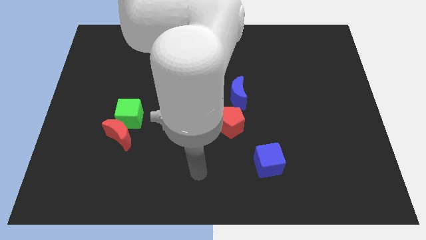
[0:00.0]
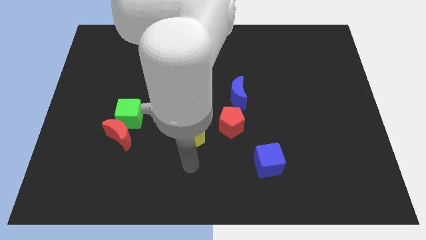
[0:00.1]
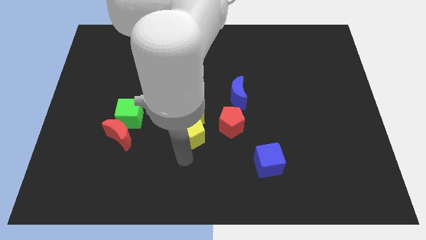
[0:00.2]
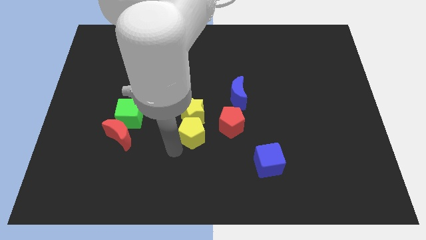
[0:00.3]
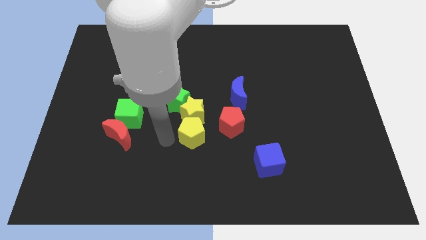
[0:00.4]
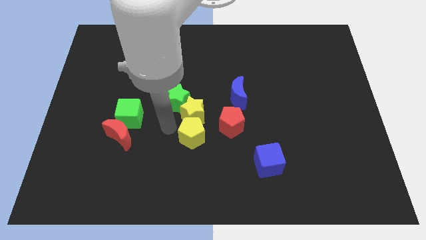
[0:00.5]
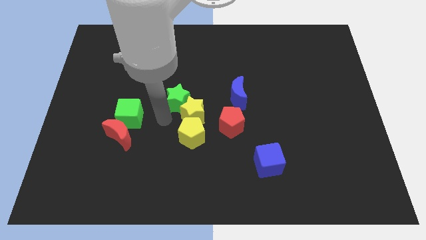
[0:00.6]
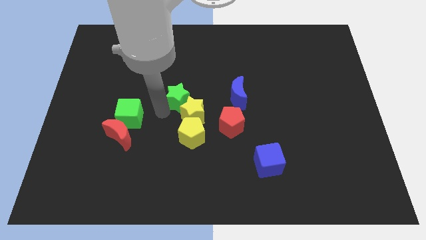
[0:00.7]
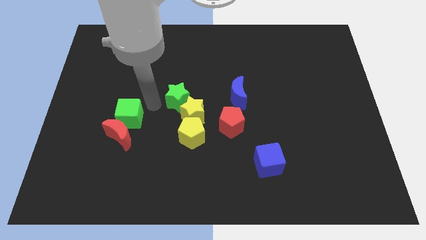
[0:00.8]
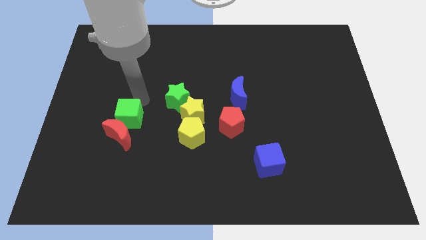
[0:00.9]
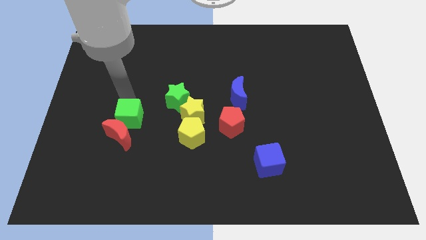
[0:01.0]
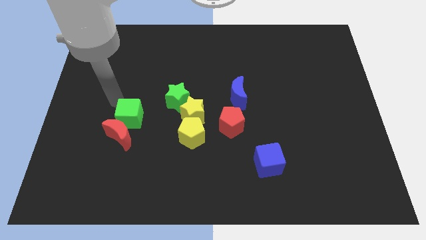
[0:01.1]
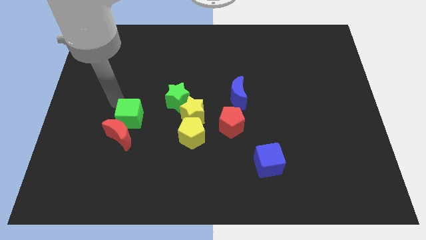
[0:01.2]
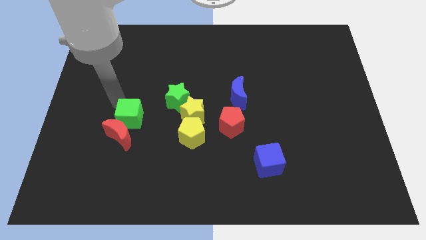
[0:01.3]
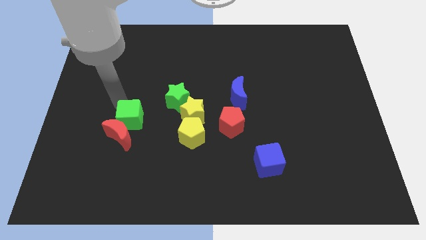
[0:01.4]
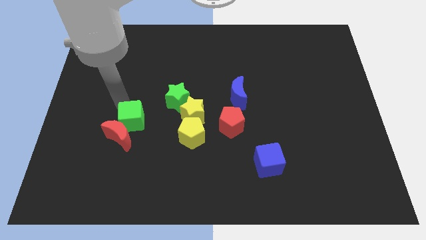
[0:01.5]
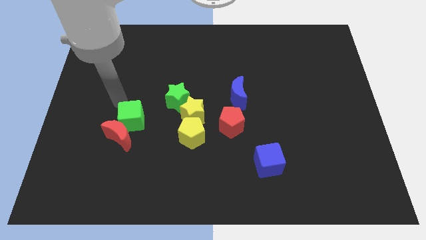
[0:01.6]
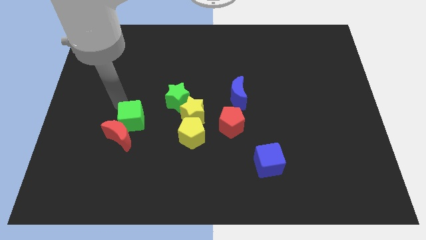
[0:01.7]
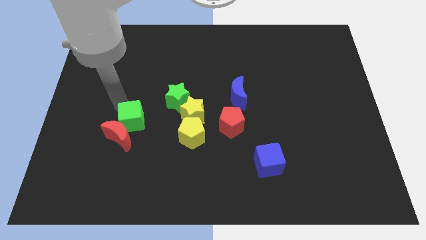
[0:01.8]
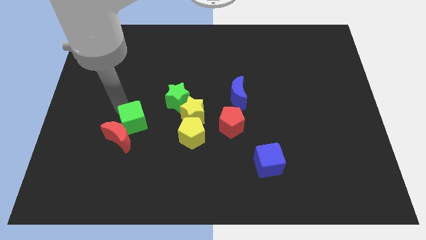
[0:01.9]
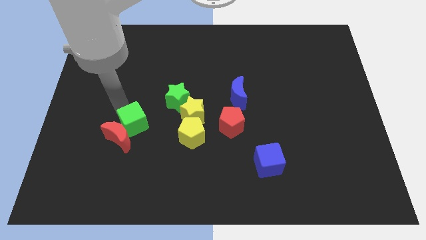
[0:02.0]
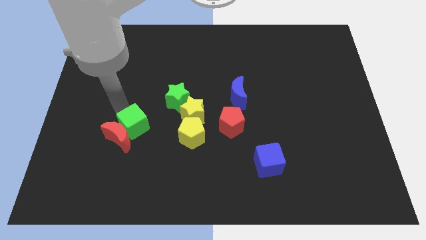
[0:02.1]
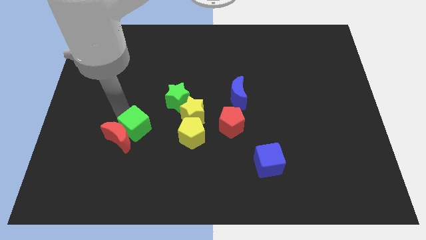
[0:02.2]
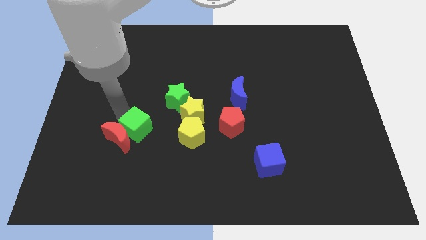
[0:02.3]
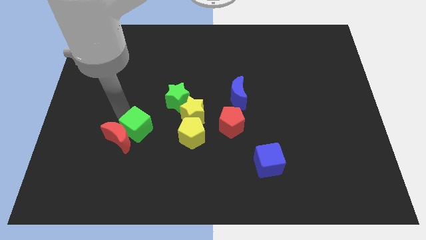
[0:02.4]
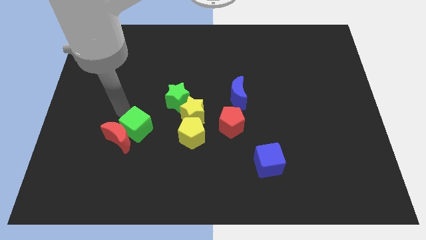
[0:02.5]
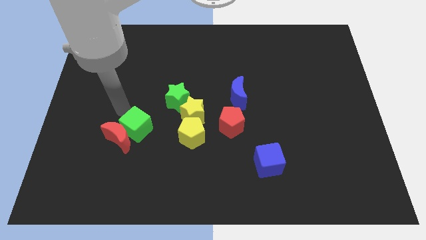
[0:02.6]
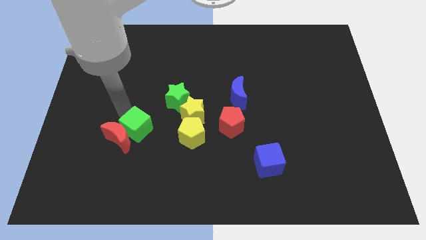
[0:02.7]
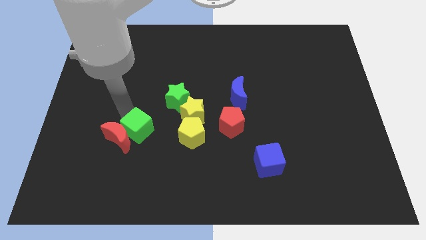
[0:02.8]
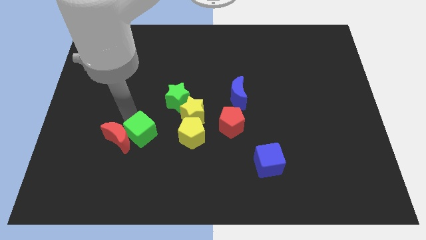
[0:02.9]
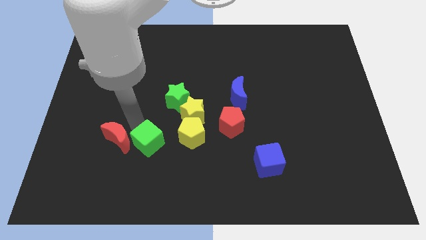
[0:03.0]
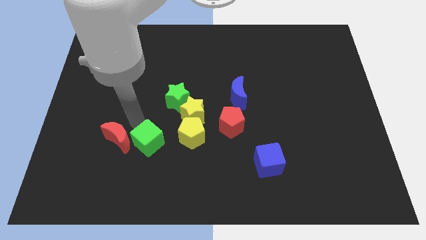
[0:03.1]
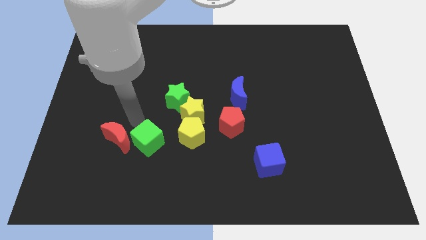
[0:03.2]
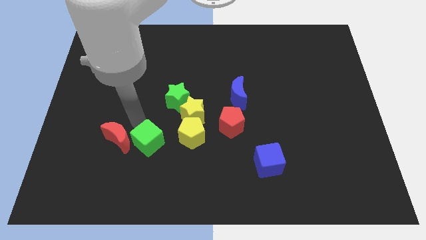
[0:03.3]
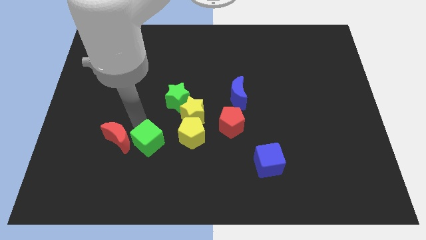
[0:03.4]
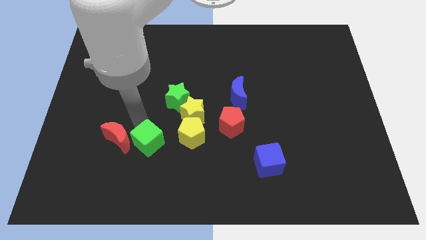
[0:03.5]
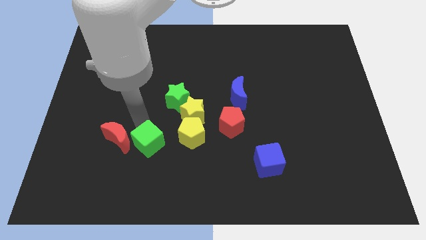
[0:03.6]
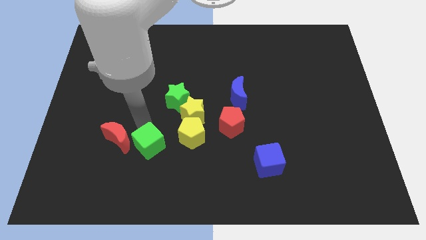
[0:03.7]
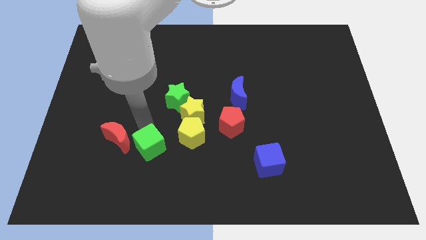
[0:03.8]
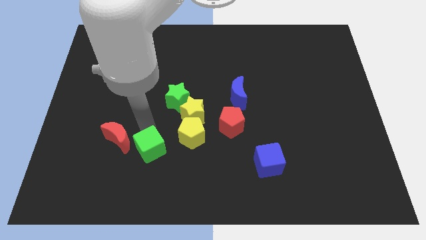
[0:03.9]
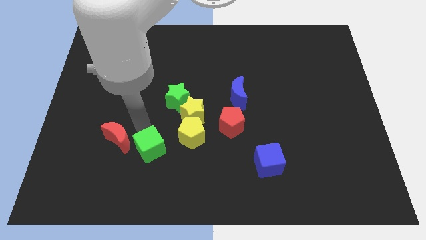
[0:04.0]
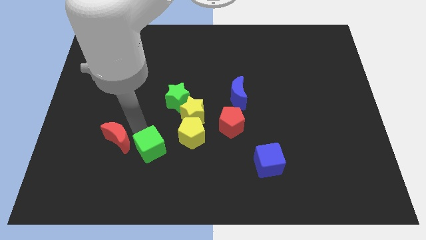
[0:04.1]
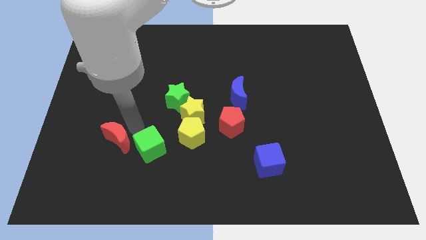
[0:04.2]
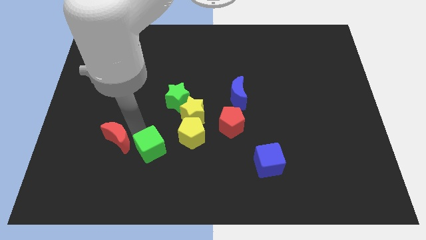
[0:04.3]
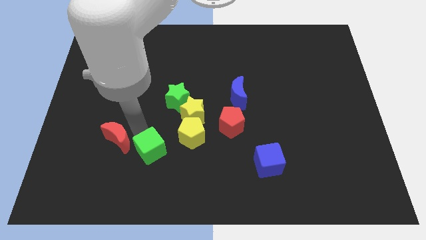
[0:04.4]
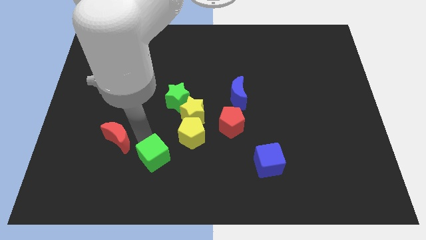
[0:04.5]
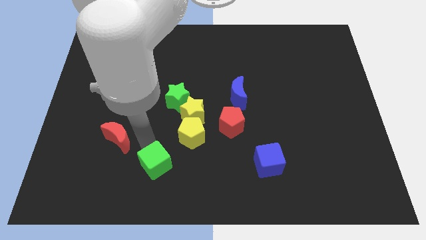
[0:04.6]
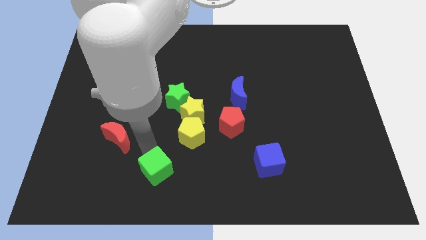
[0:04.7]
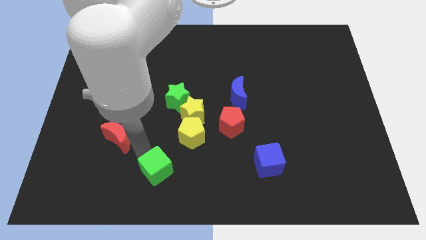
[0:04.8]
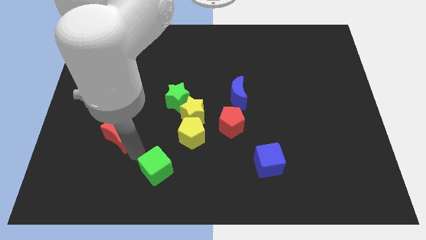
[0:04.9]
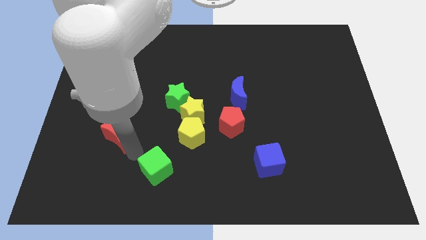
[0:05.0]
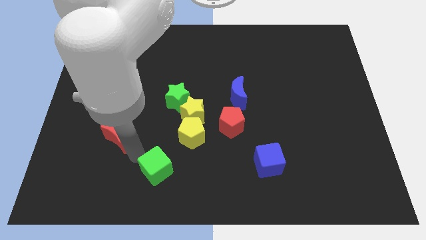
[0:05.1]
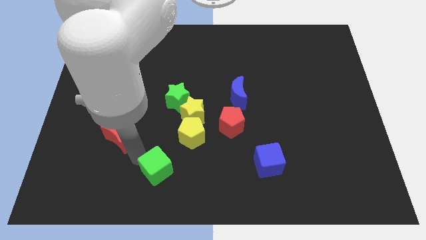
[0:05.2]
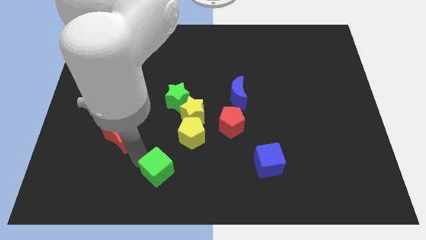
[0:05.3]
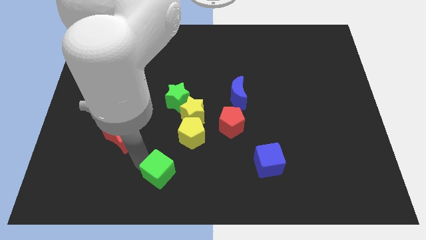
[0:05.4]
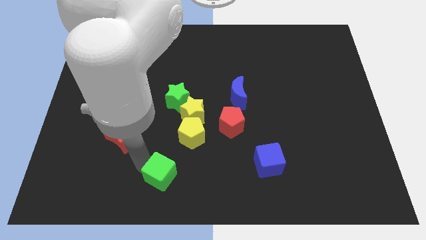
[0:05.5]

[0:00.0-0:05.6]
slide the green cube to the bottom side

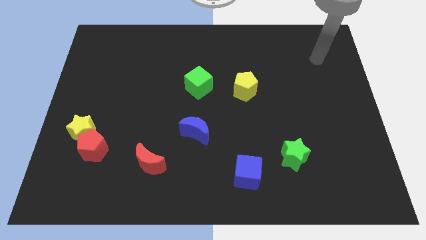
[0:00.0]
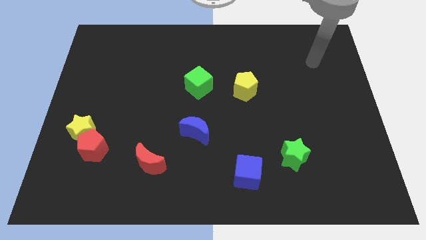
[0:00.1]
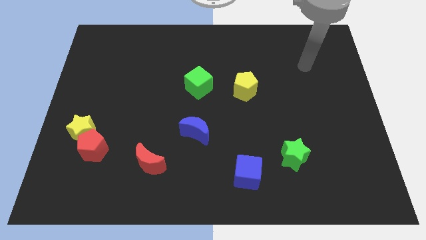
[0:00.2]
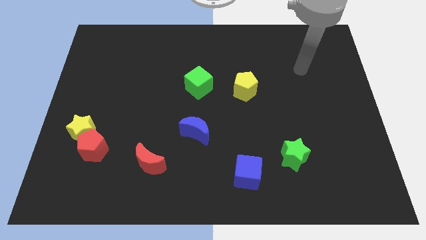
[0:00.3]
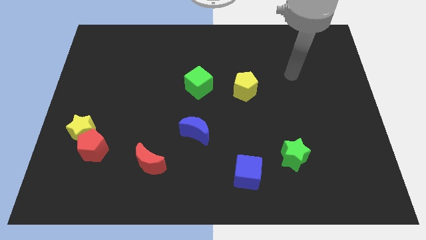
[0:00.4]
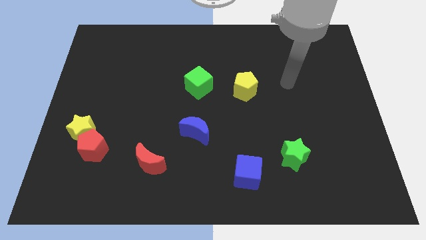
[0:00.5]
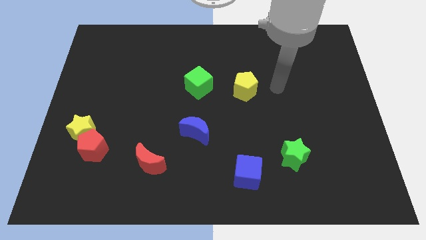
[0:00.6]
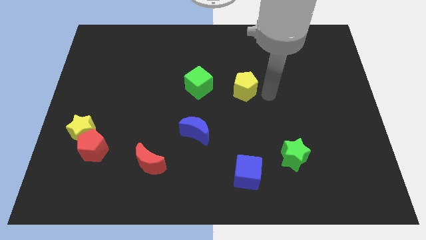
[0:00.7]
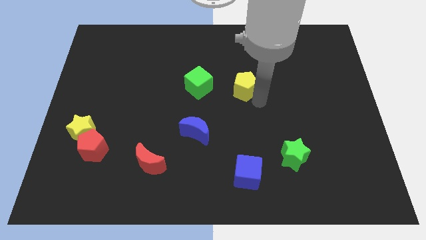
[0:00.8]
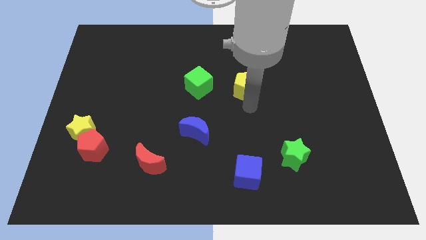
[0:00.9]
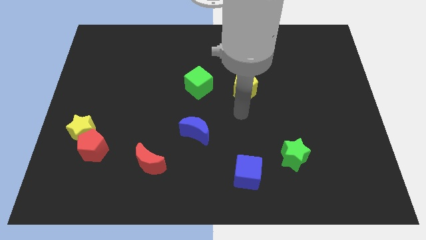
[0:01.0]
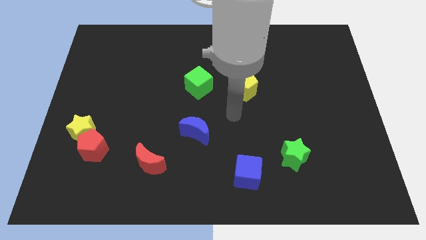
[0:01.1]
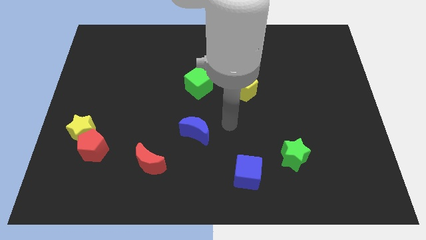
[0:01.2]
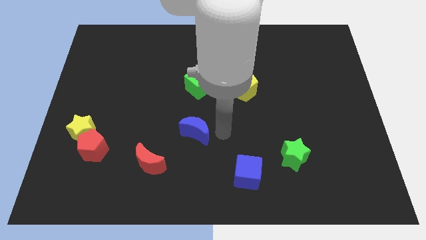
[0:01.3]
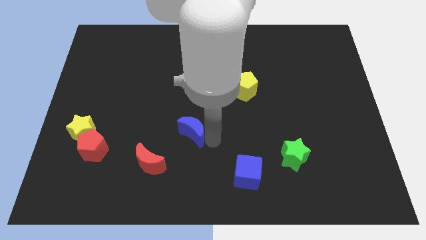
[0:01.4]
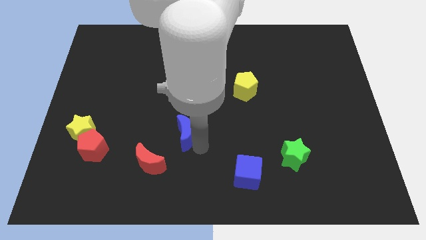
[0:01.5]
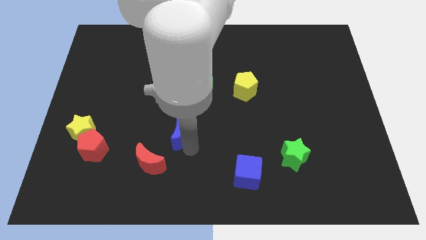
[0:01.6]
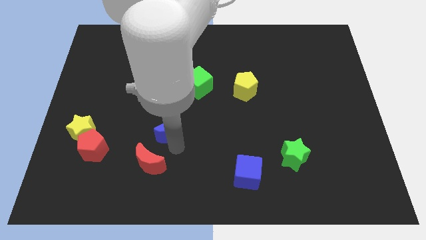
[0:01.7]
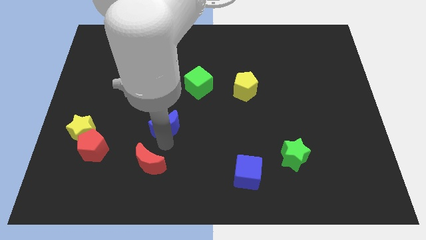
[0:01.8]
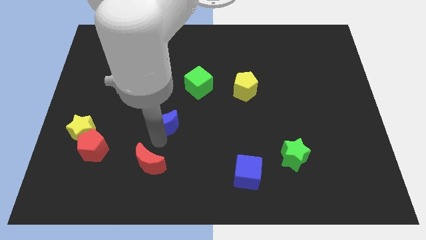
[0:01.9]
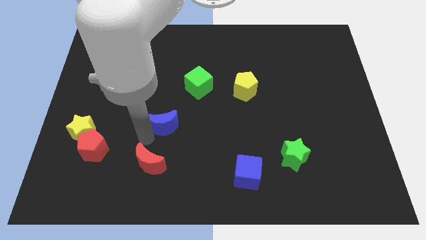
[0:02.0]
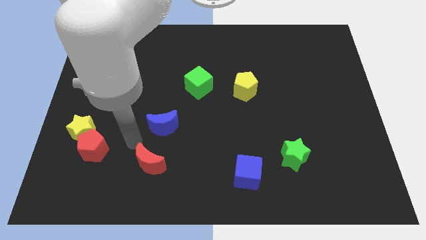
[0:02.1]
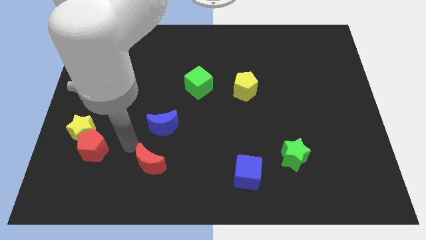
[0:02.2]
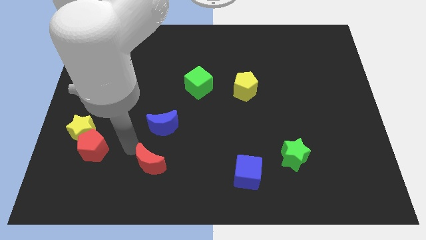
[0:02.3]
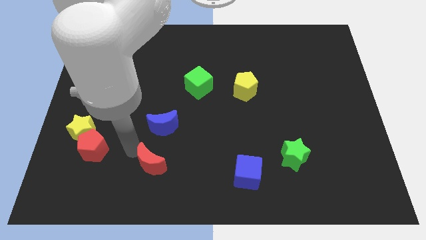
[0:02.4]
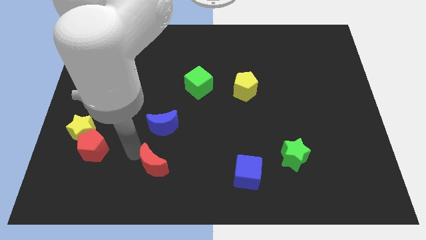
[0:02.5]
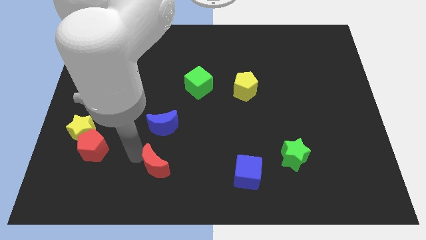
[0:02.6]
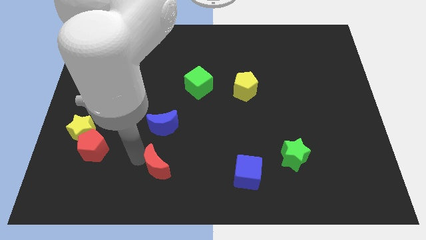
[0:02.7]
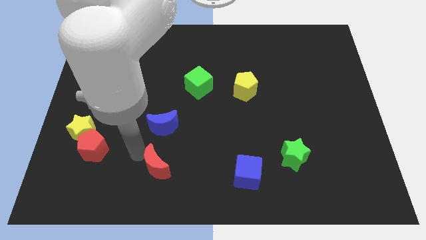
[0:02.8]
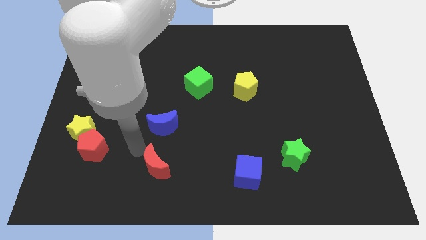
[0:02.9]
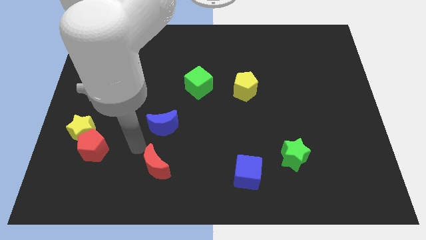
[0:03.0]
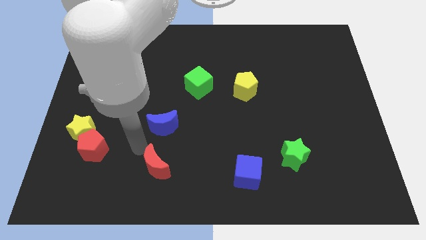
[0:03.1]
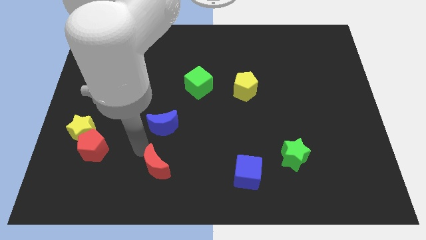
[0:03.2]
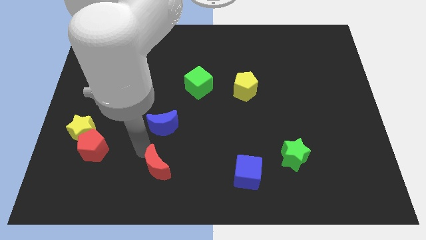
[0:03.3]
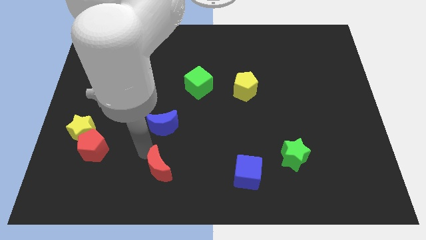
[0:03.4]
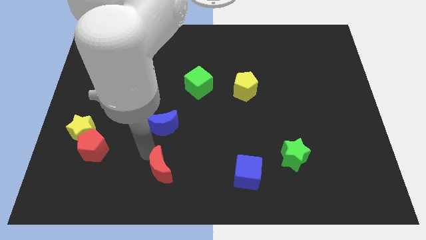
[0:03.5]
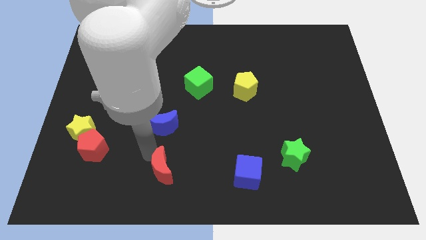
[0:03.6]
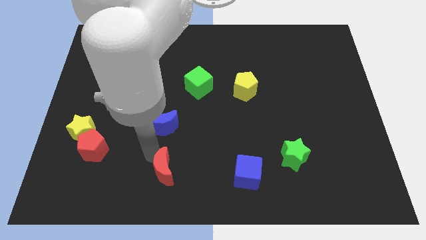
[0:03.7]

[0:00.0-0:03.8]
slide the red moon to the bottom
